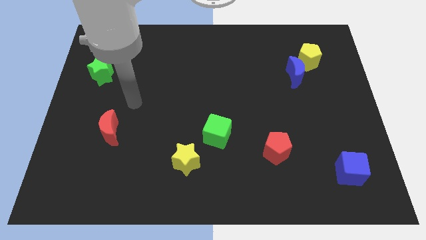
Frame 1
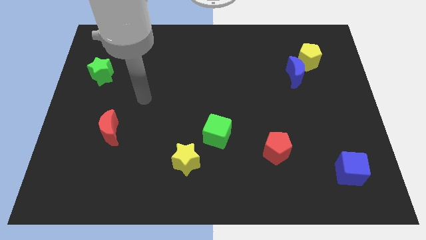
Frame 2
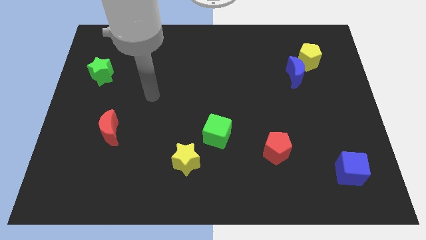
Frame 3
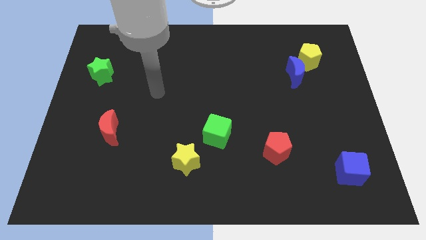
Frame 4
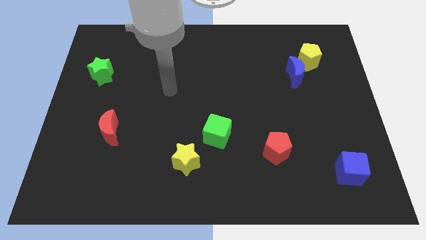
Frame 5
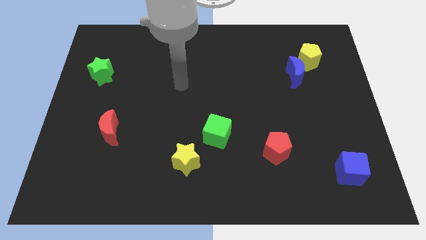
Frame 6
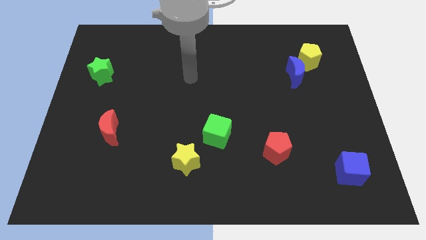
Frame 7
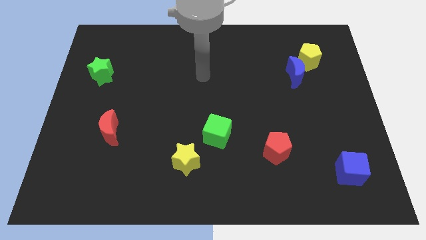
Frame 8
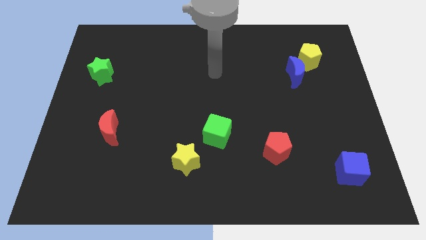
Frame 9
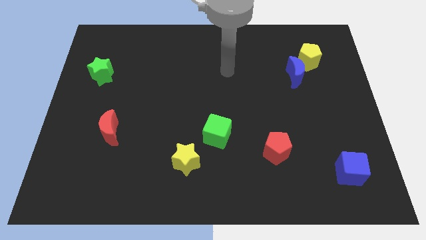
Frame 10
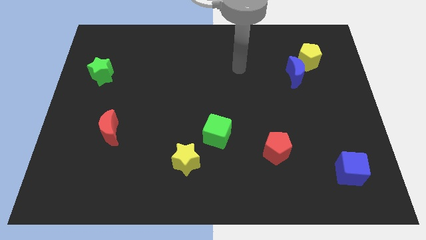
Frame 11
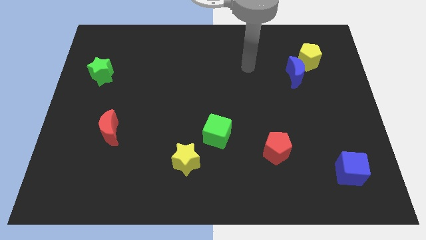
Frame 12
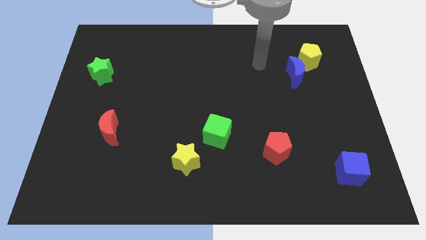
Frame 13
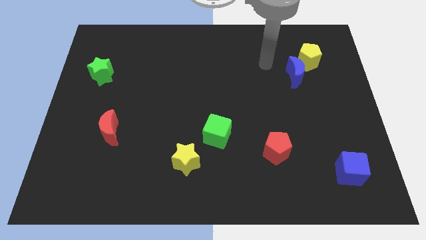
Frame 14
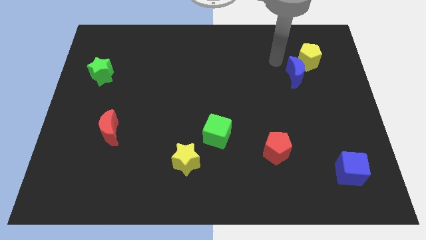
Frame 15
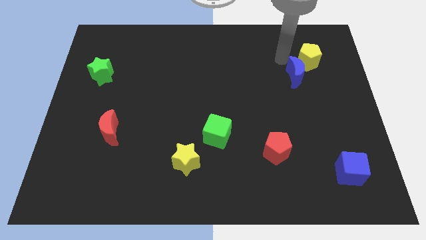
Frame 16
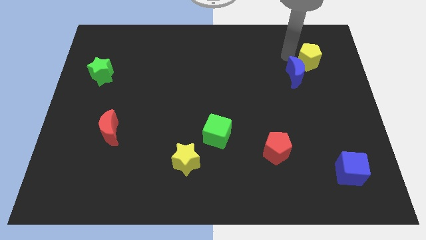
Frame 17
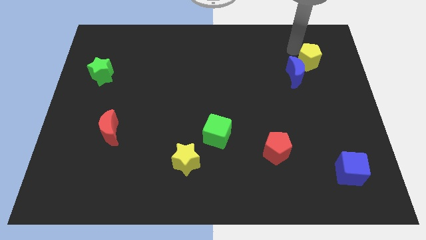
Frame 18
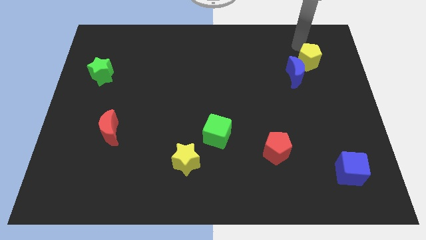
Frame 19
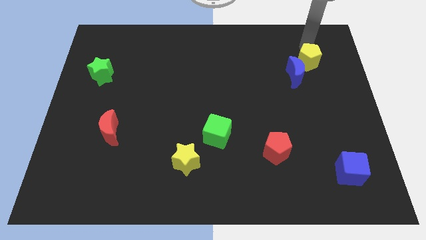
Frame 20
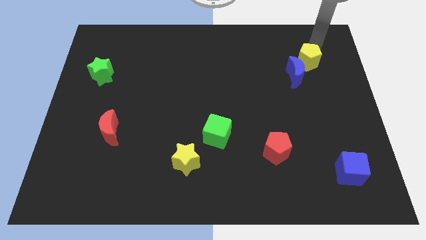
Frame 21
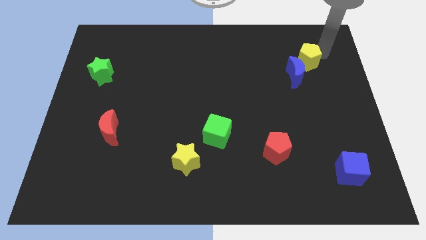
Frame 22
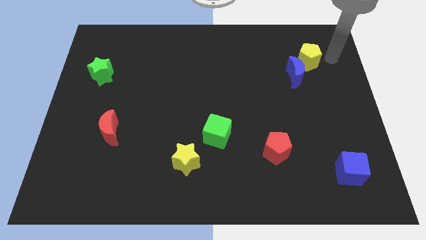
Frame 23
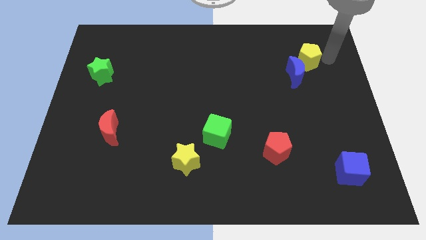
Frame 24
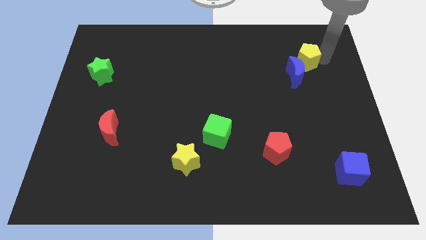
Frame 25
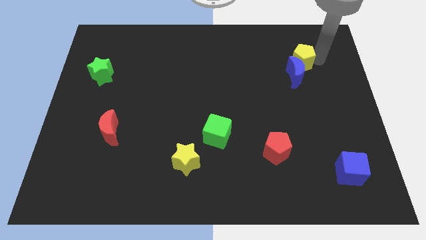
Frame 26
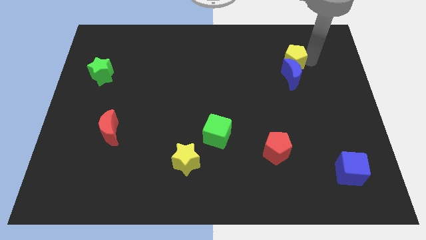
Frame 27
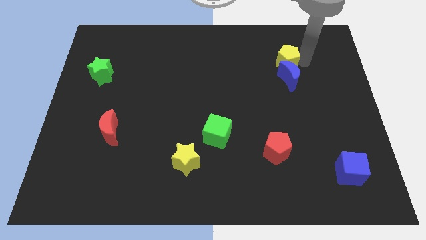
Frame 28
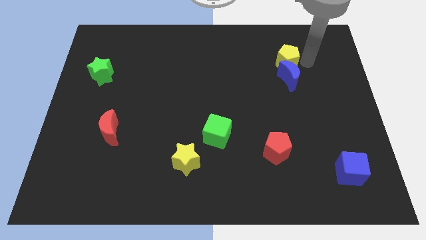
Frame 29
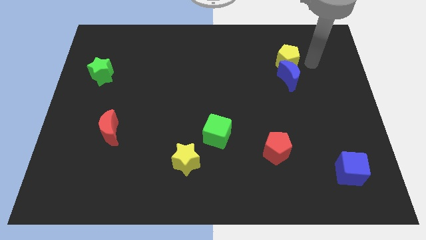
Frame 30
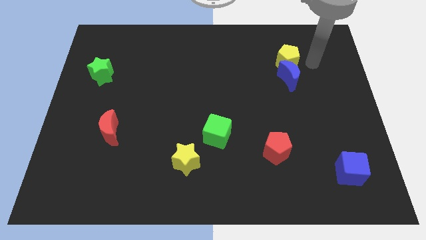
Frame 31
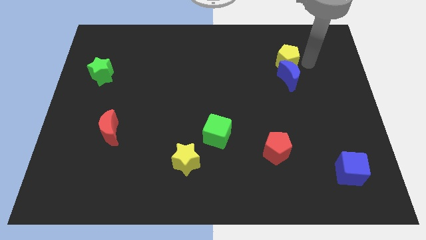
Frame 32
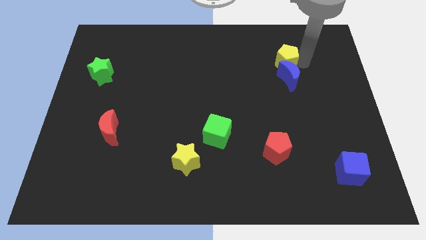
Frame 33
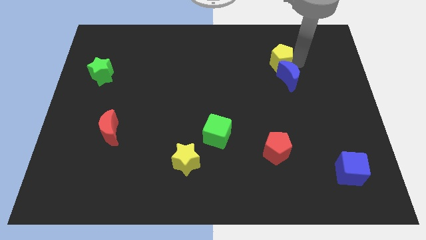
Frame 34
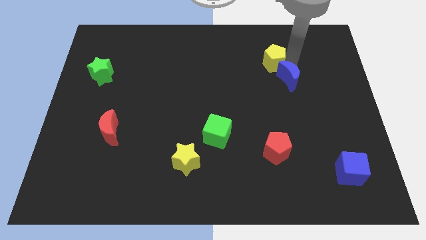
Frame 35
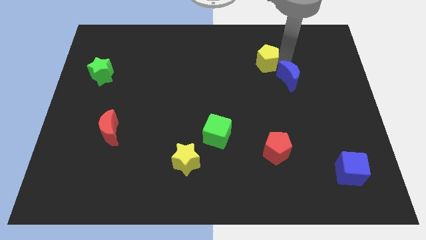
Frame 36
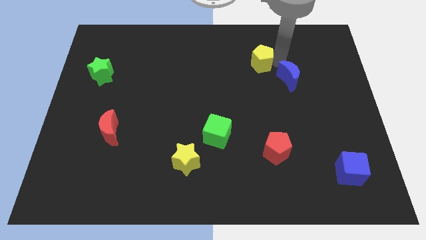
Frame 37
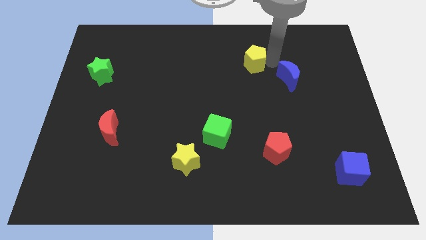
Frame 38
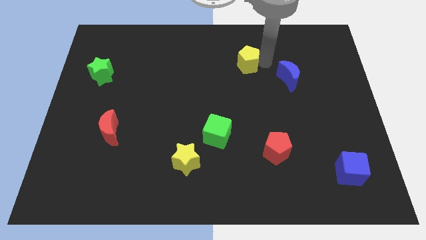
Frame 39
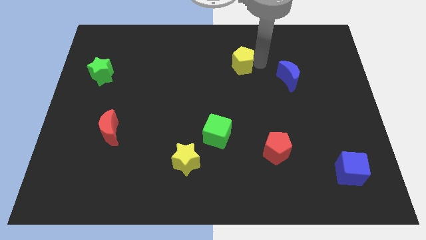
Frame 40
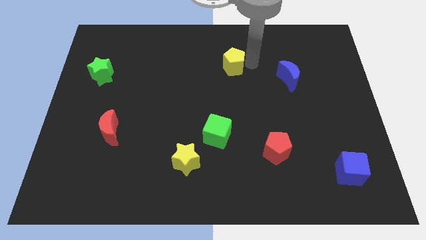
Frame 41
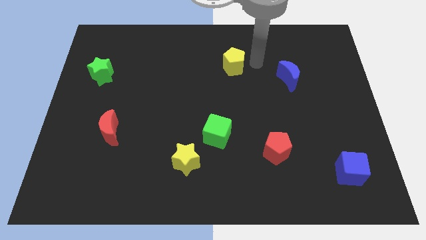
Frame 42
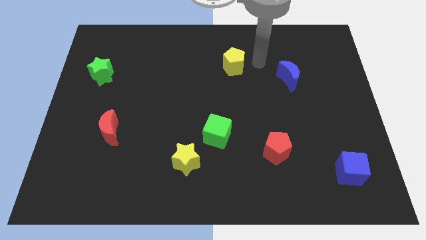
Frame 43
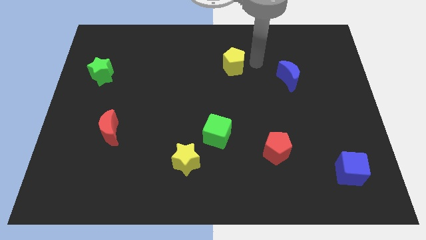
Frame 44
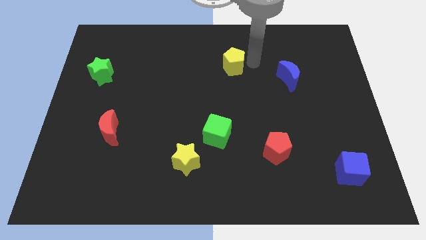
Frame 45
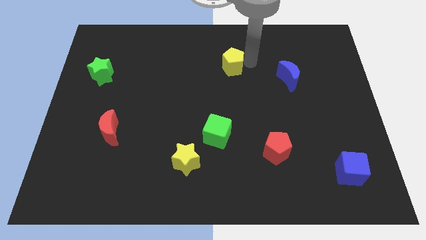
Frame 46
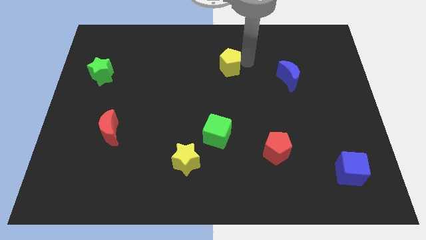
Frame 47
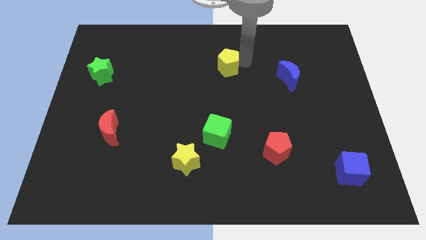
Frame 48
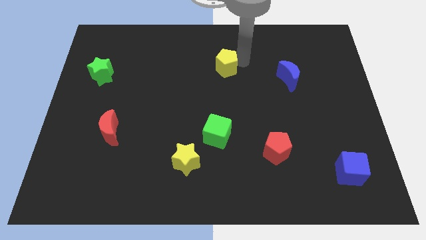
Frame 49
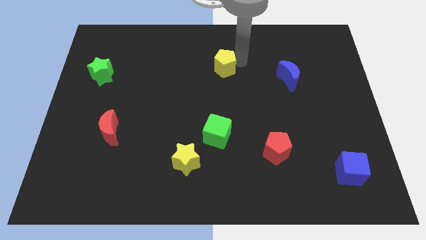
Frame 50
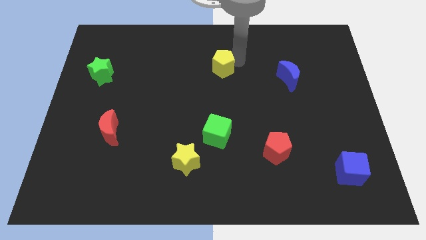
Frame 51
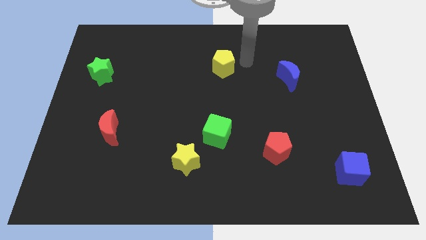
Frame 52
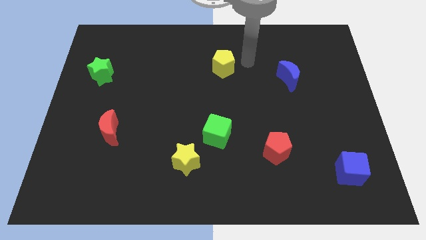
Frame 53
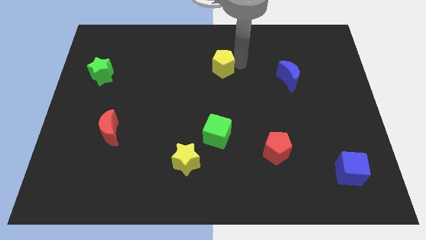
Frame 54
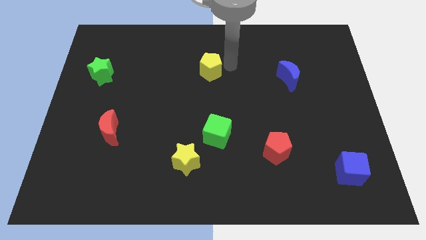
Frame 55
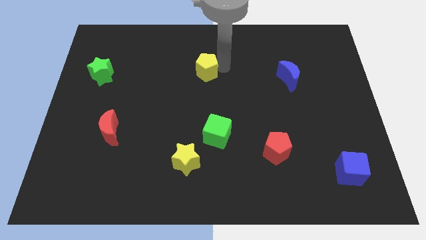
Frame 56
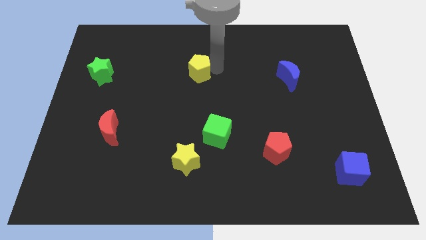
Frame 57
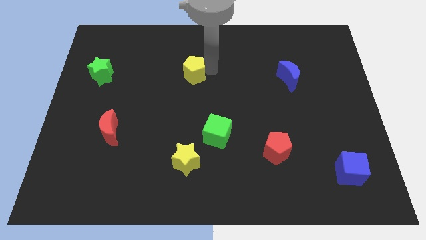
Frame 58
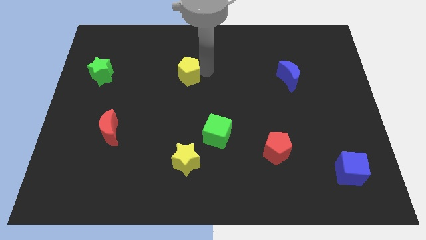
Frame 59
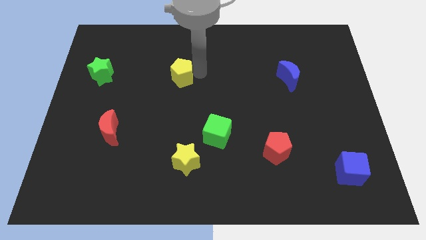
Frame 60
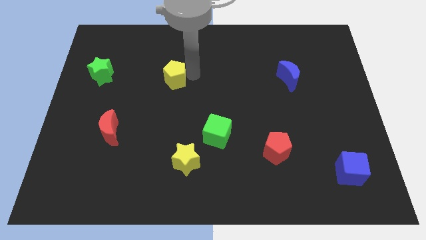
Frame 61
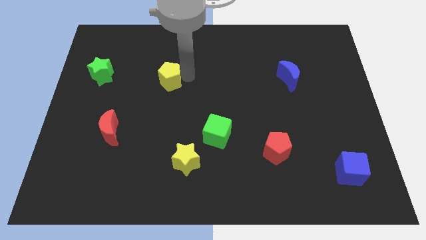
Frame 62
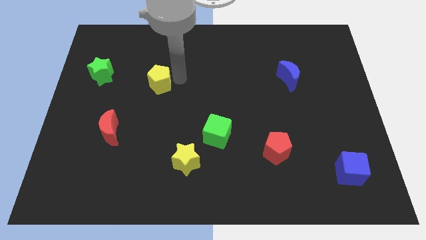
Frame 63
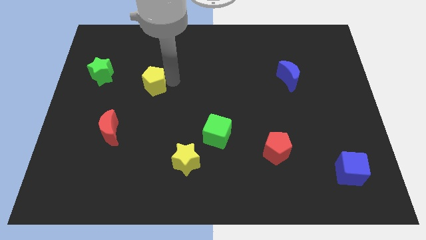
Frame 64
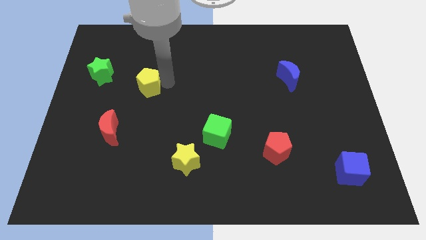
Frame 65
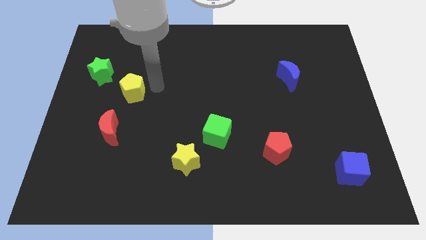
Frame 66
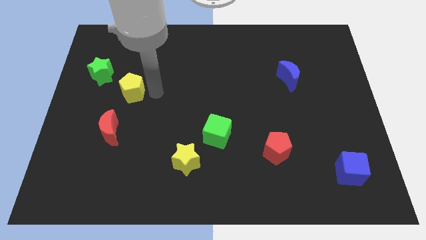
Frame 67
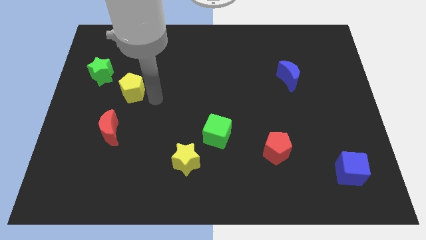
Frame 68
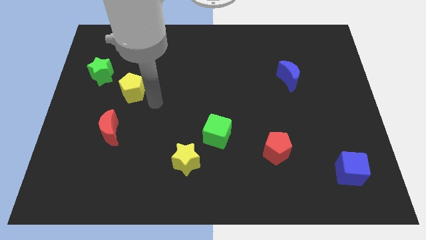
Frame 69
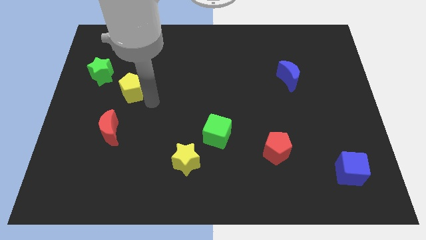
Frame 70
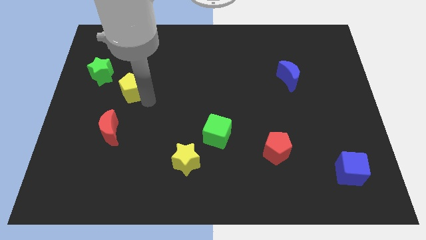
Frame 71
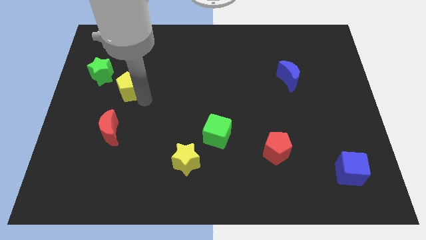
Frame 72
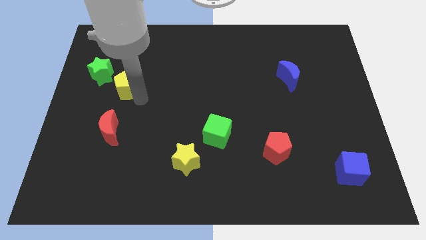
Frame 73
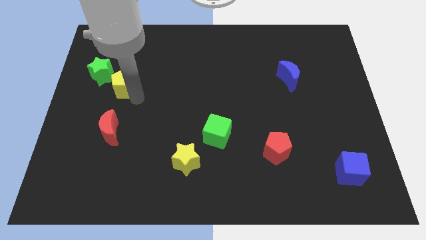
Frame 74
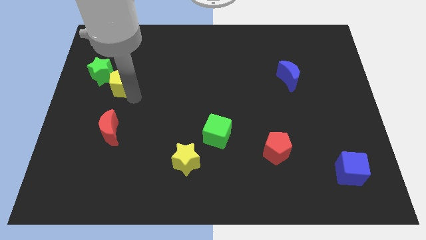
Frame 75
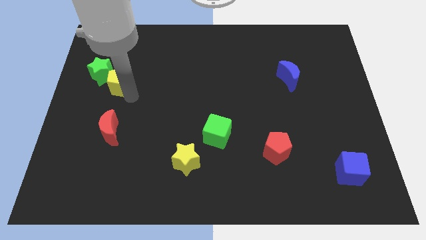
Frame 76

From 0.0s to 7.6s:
push the yellow pentagon to the green star

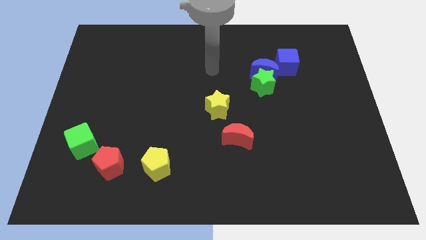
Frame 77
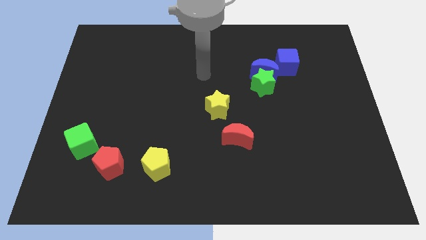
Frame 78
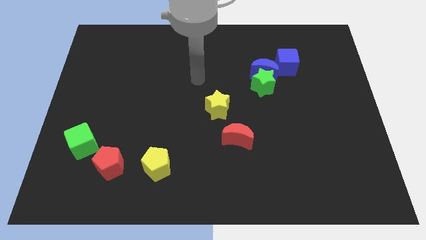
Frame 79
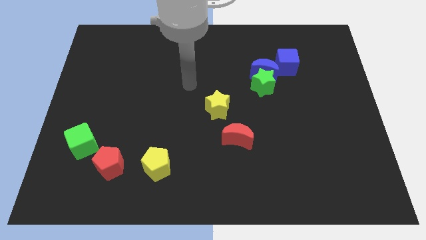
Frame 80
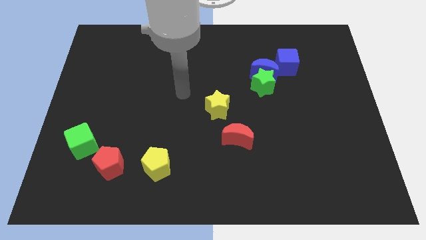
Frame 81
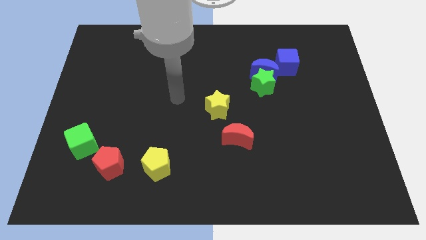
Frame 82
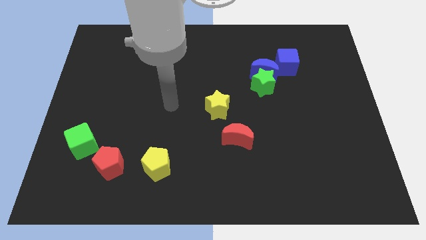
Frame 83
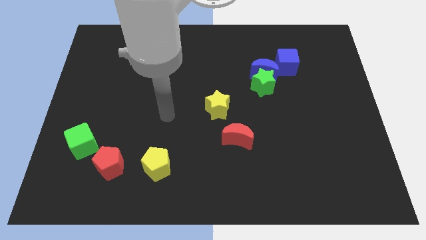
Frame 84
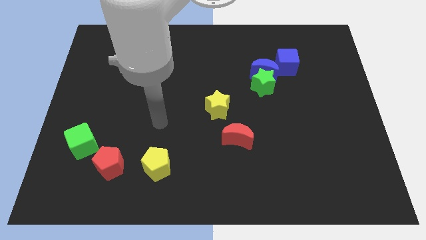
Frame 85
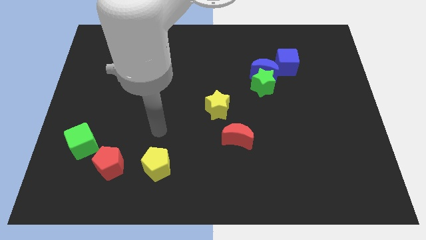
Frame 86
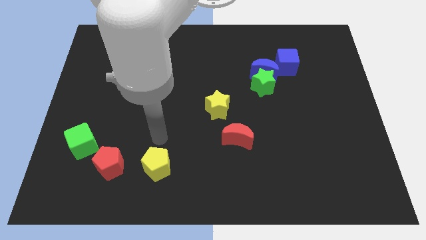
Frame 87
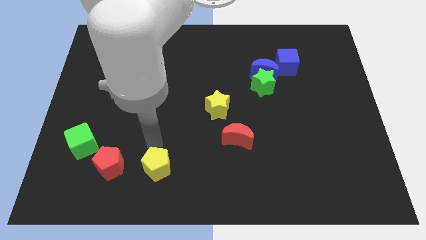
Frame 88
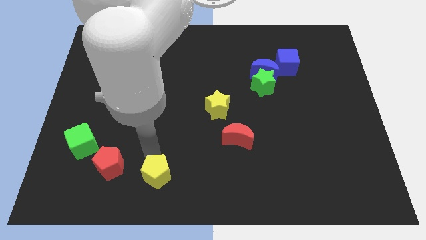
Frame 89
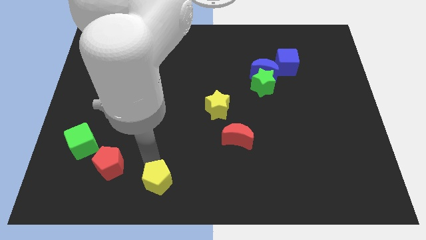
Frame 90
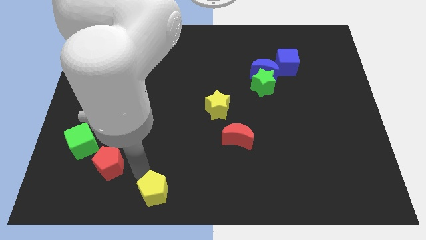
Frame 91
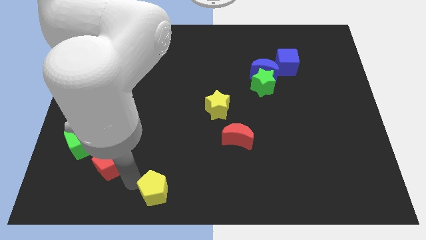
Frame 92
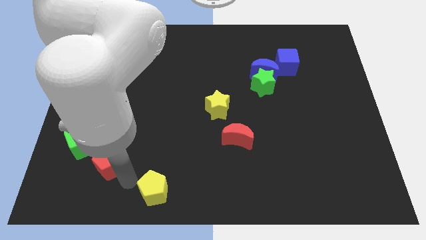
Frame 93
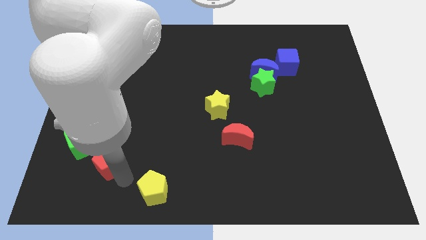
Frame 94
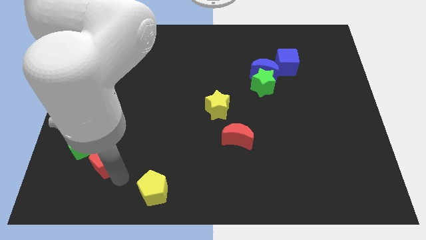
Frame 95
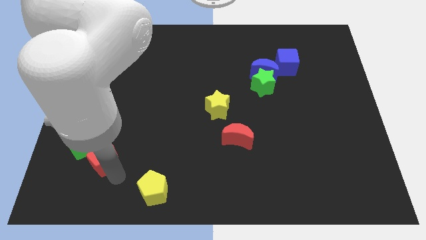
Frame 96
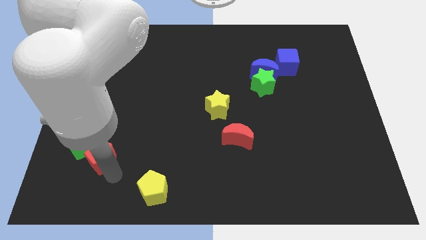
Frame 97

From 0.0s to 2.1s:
move the red pentagon close to the green cube
